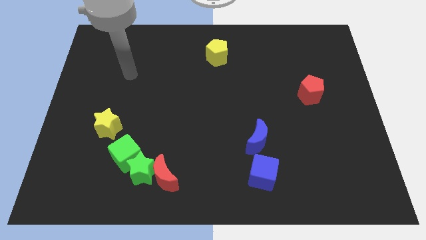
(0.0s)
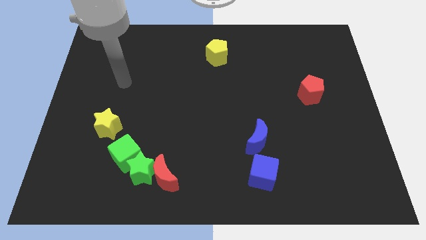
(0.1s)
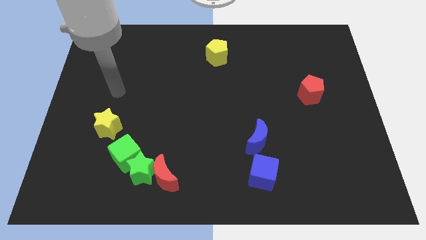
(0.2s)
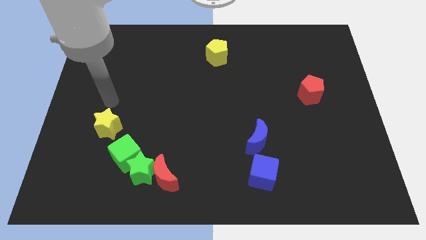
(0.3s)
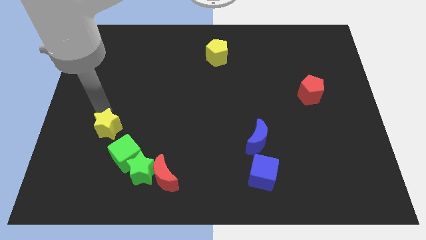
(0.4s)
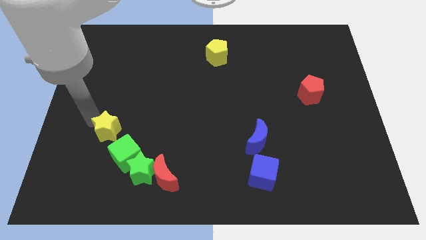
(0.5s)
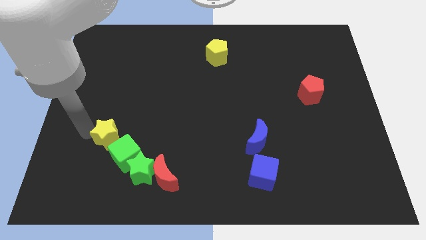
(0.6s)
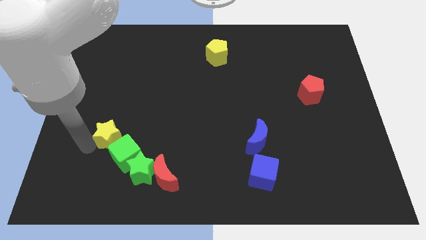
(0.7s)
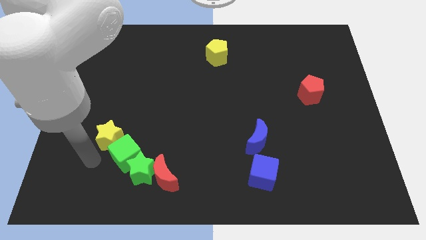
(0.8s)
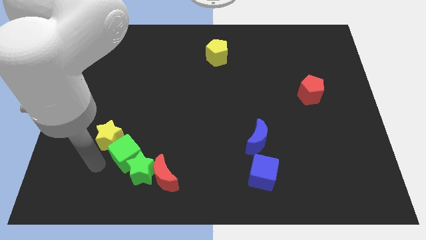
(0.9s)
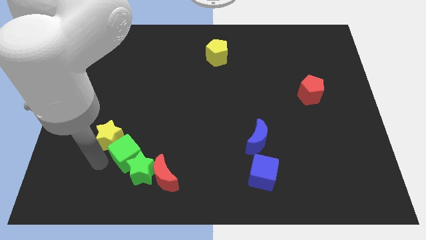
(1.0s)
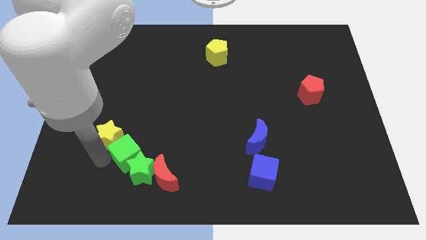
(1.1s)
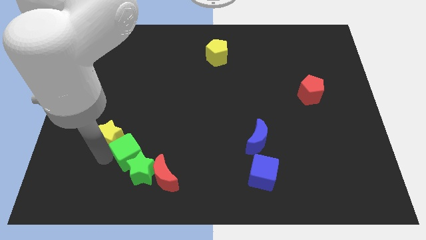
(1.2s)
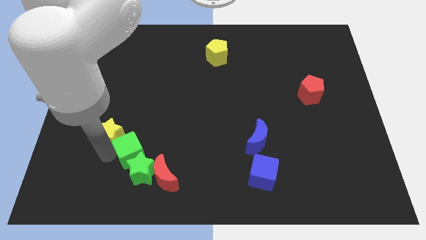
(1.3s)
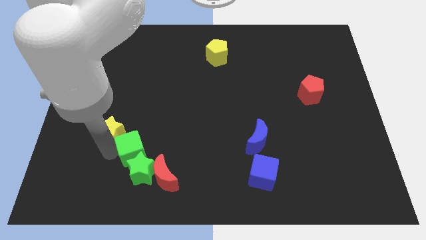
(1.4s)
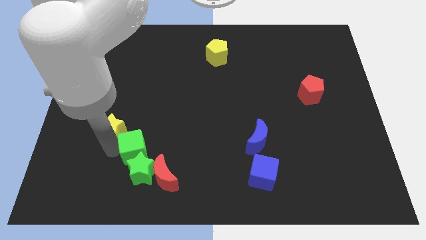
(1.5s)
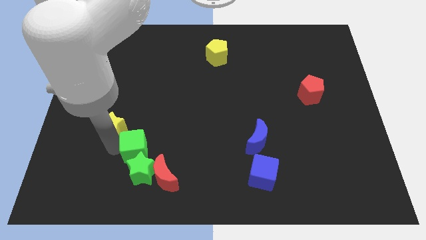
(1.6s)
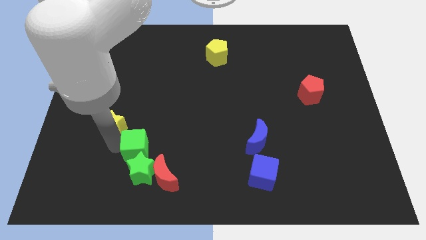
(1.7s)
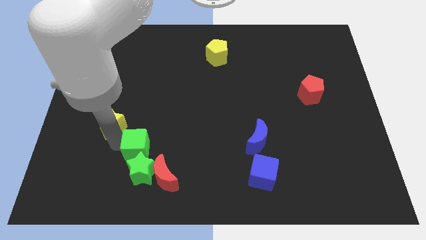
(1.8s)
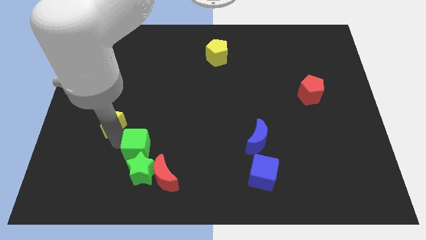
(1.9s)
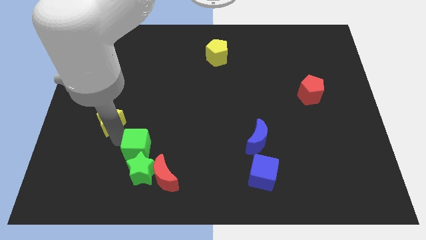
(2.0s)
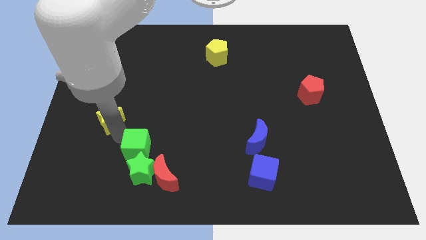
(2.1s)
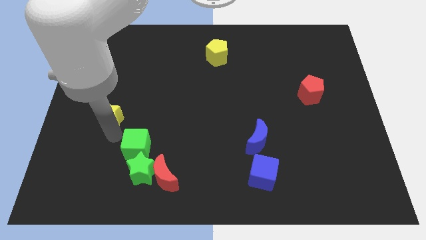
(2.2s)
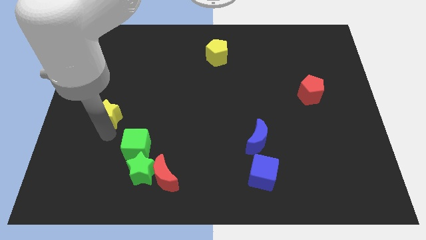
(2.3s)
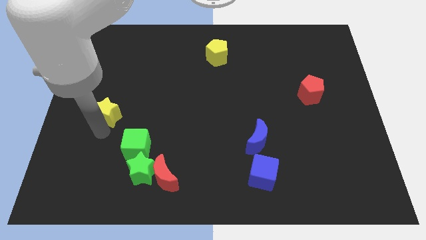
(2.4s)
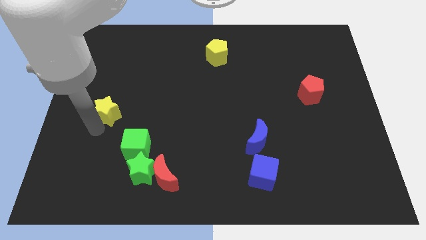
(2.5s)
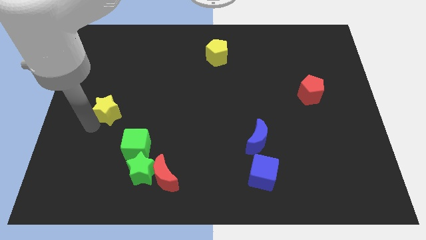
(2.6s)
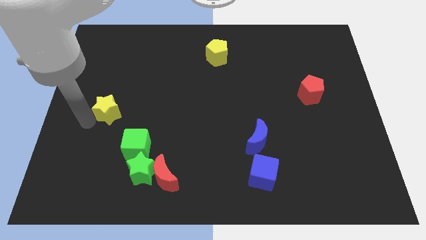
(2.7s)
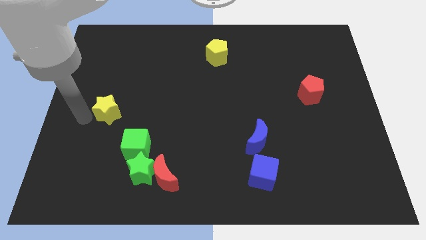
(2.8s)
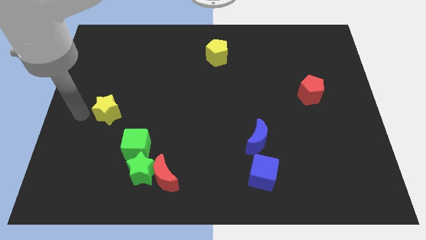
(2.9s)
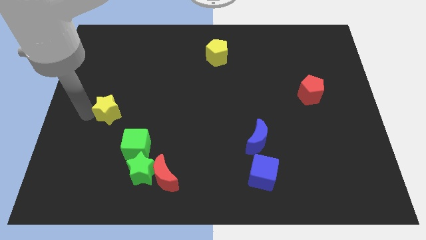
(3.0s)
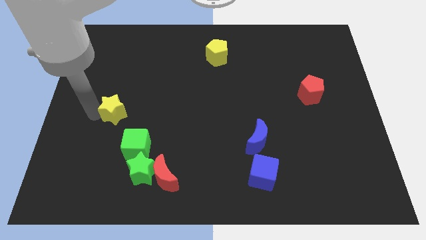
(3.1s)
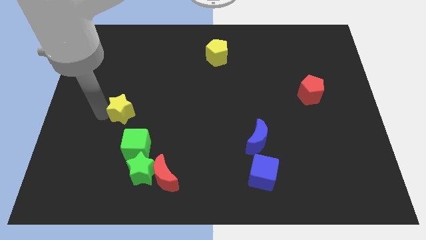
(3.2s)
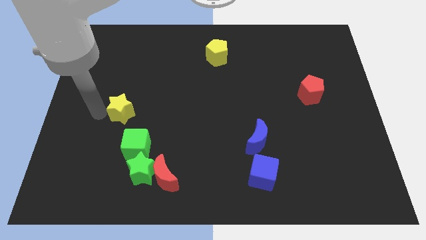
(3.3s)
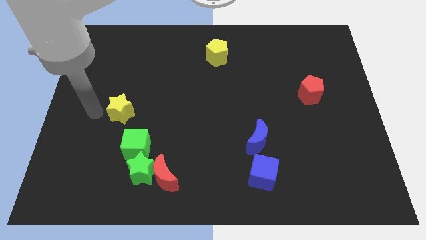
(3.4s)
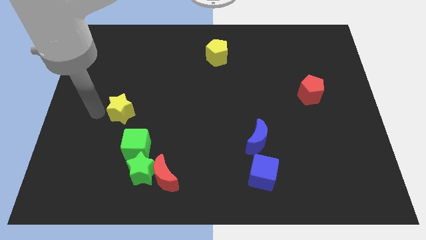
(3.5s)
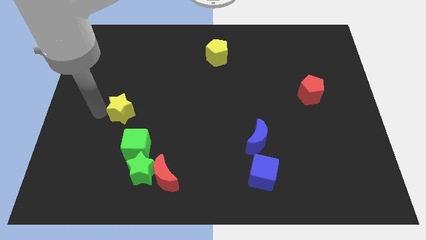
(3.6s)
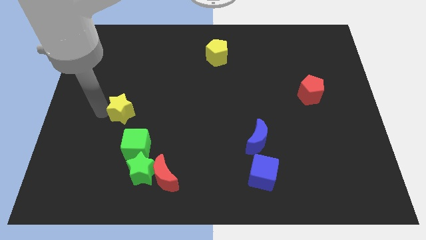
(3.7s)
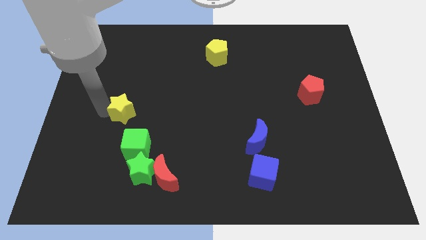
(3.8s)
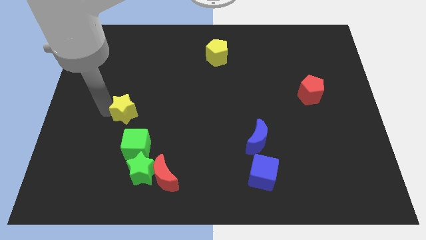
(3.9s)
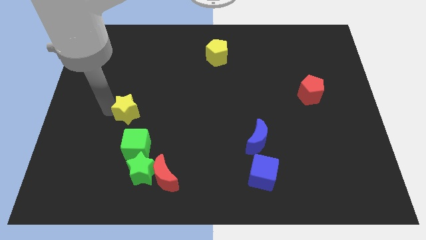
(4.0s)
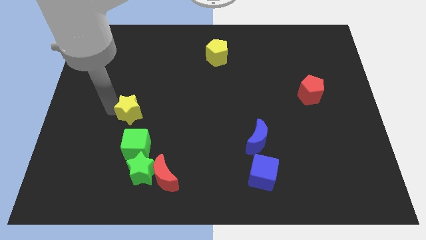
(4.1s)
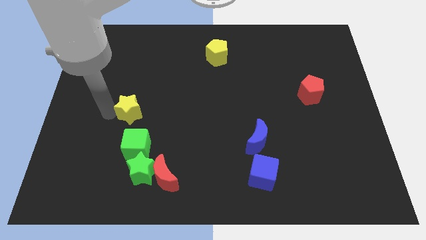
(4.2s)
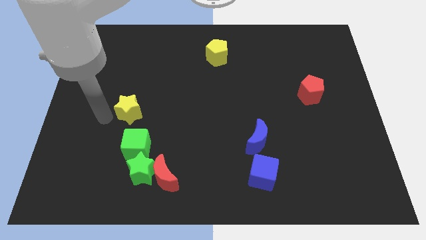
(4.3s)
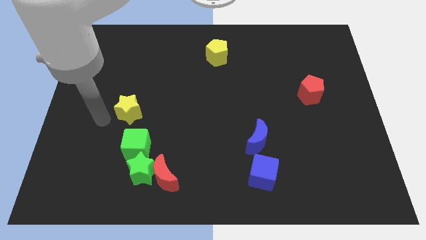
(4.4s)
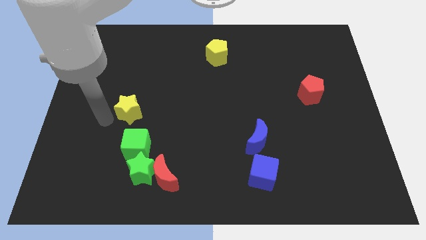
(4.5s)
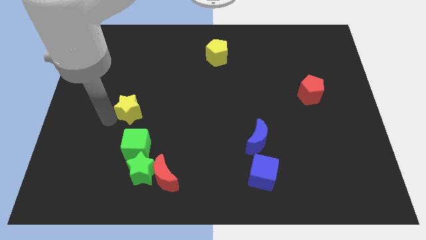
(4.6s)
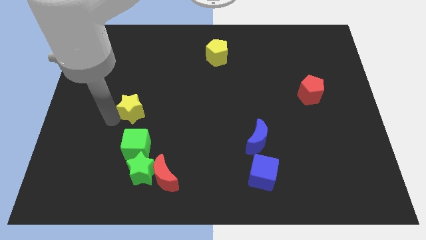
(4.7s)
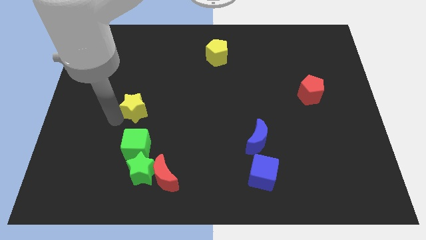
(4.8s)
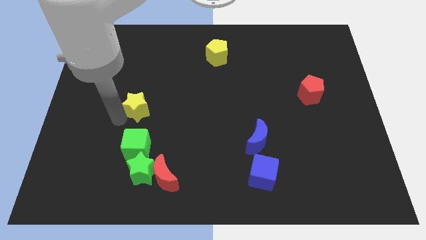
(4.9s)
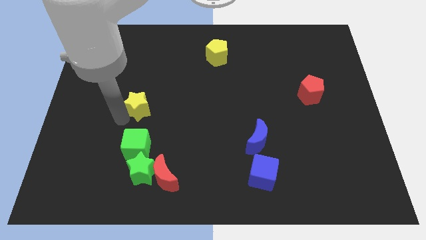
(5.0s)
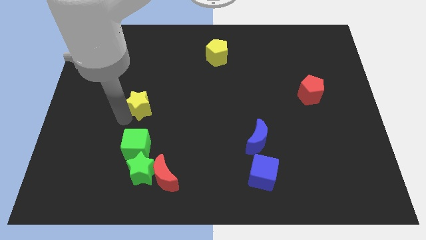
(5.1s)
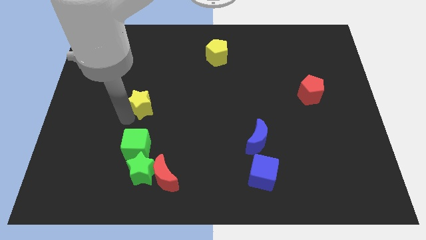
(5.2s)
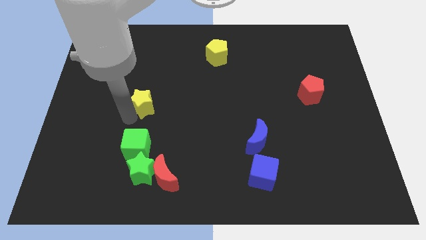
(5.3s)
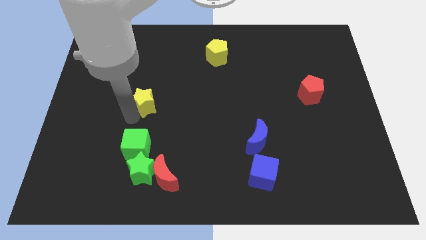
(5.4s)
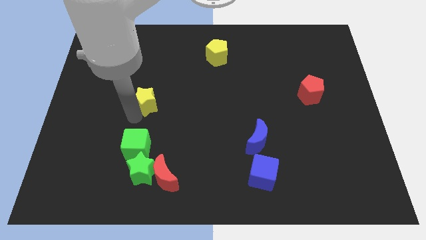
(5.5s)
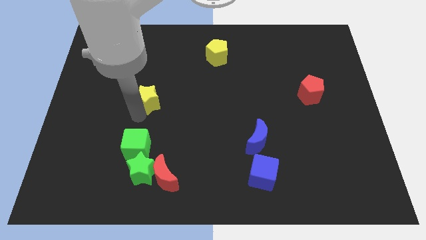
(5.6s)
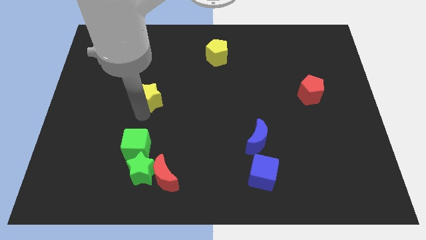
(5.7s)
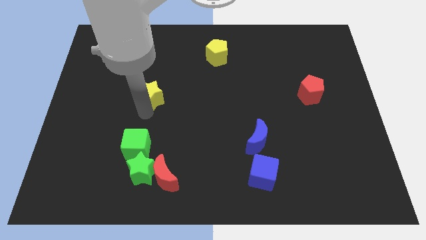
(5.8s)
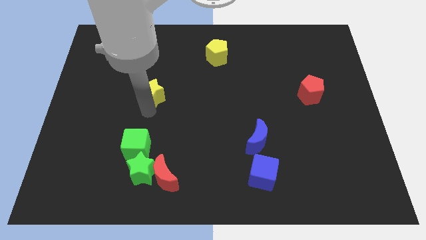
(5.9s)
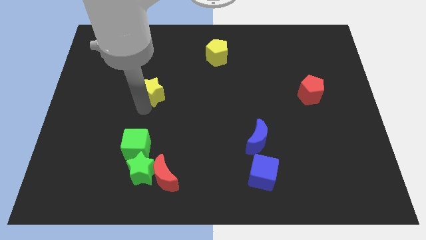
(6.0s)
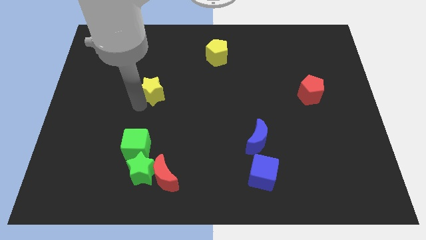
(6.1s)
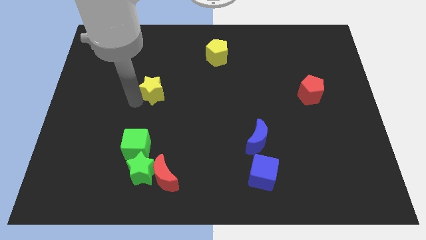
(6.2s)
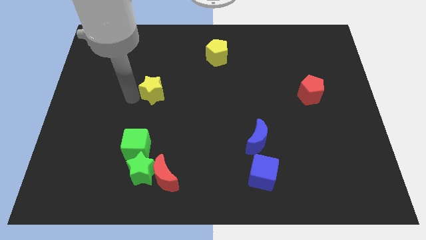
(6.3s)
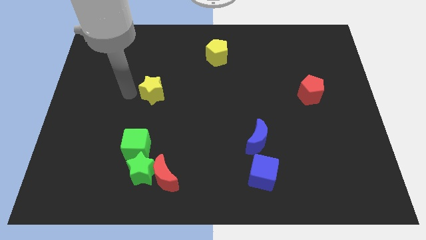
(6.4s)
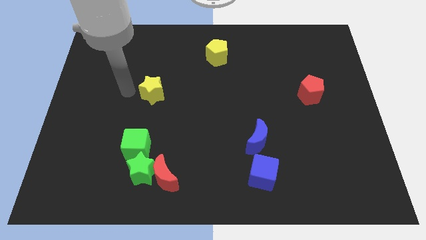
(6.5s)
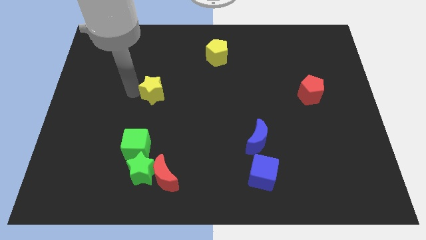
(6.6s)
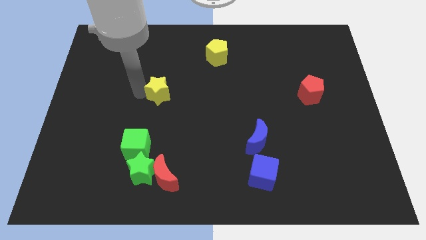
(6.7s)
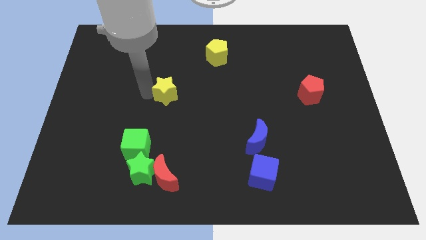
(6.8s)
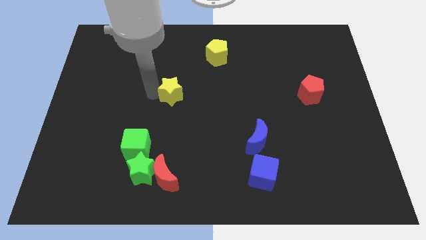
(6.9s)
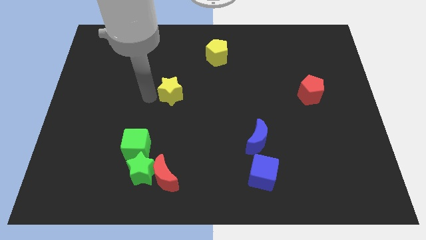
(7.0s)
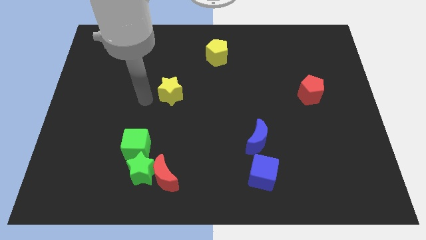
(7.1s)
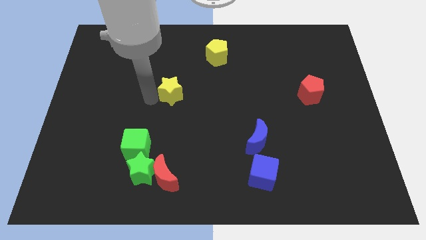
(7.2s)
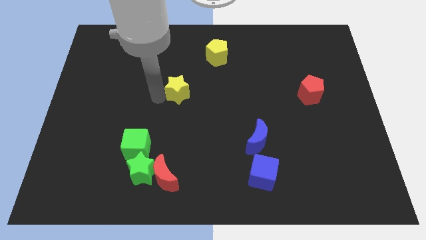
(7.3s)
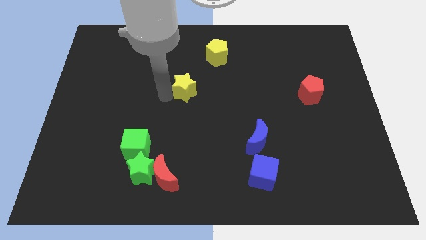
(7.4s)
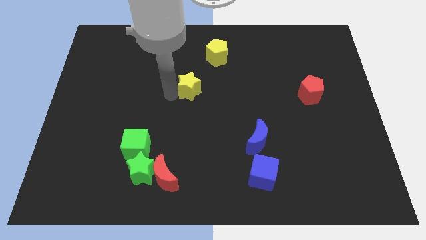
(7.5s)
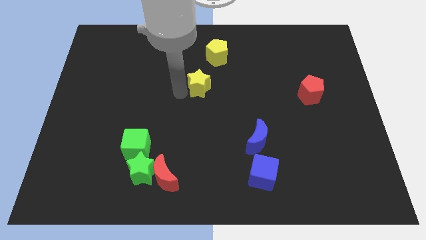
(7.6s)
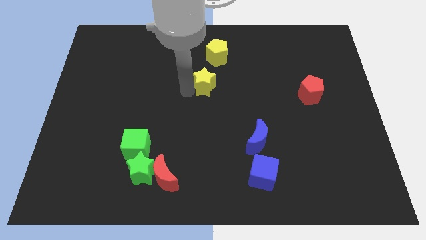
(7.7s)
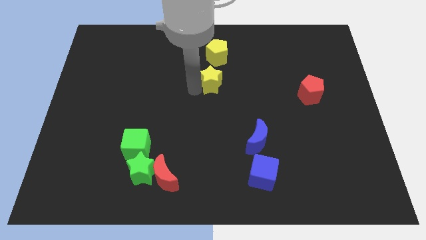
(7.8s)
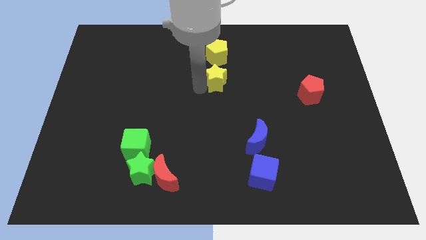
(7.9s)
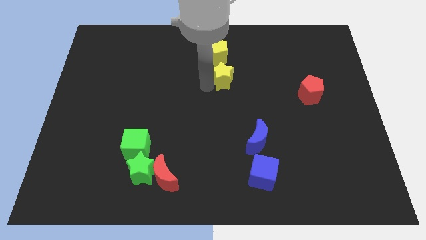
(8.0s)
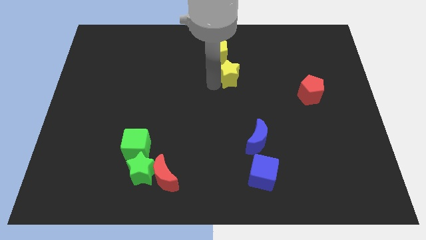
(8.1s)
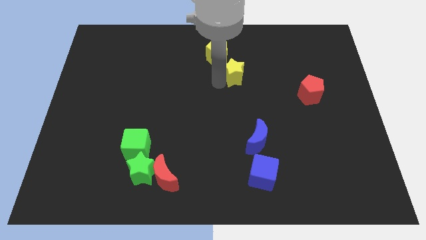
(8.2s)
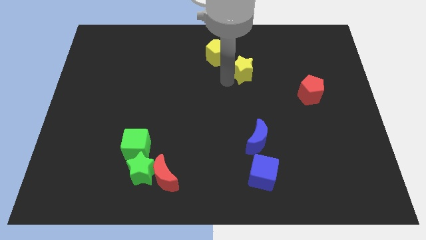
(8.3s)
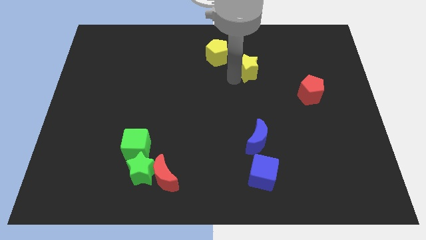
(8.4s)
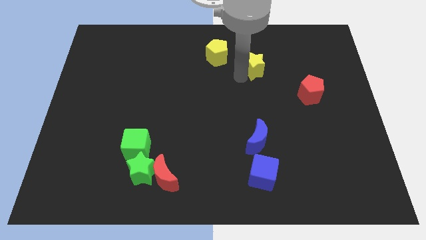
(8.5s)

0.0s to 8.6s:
put the yellow star to the right of the yellow pentagon
